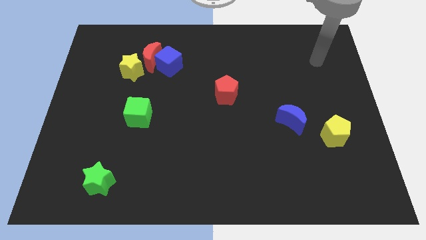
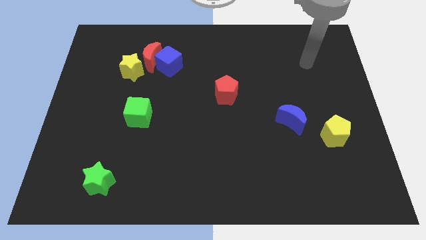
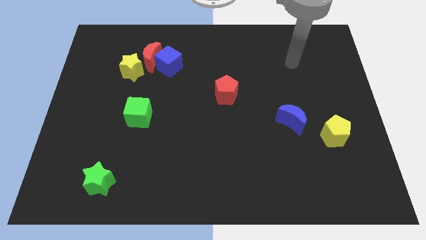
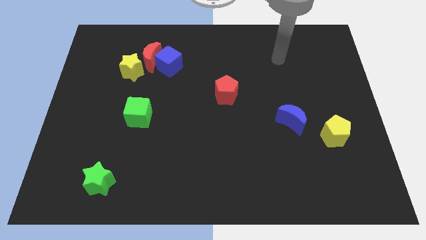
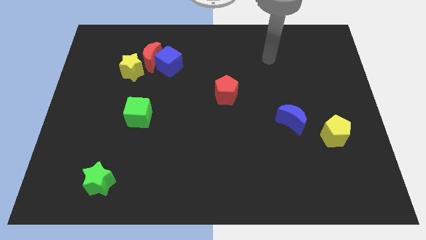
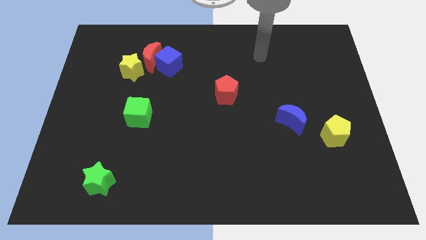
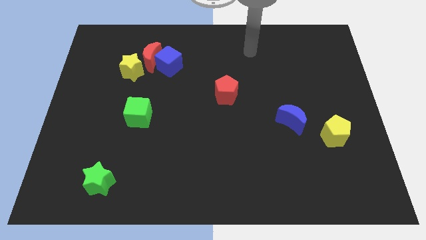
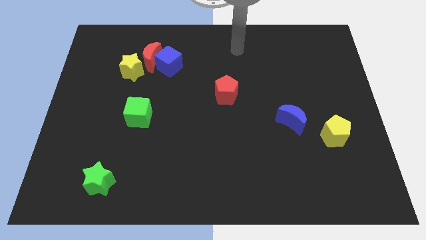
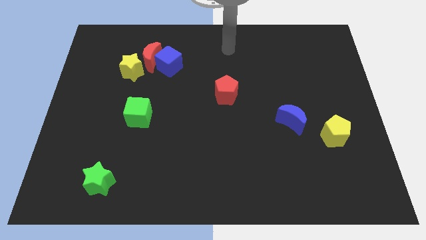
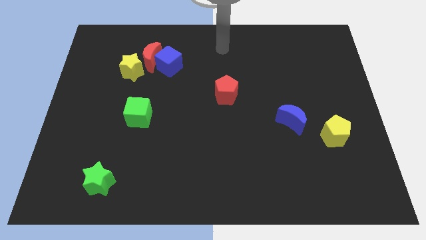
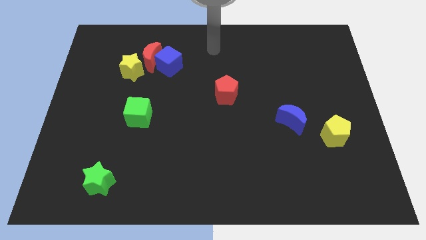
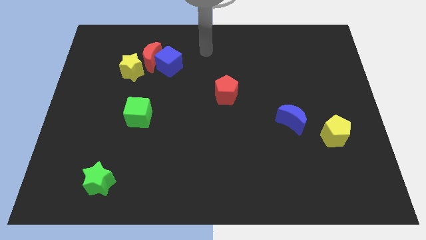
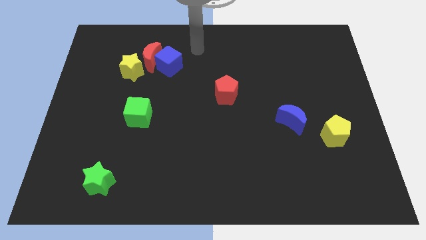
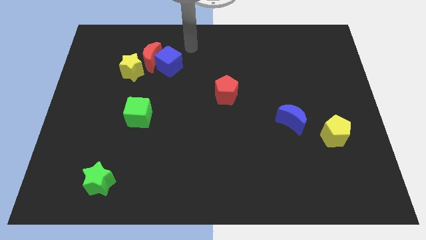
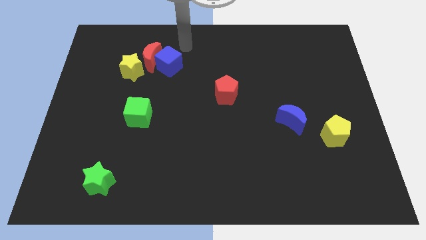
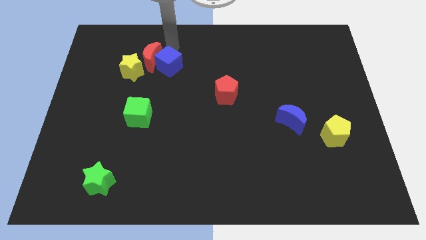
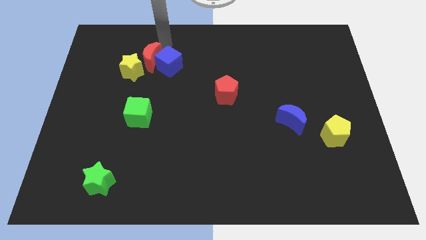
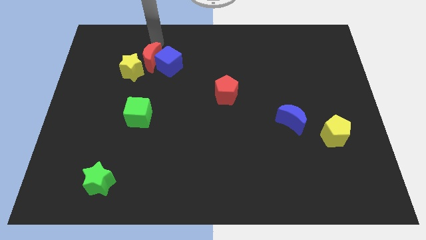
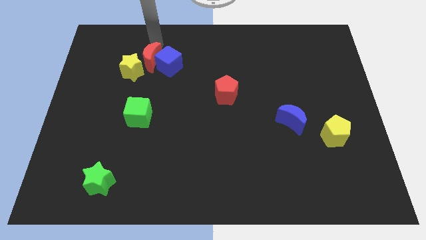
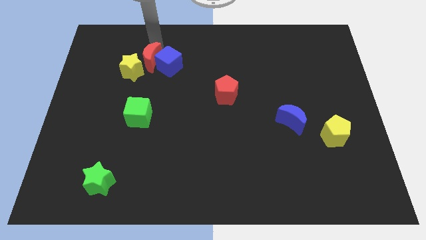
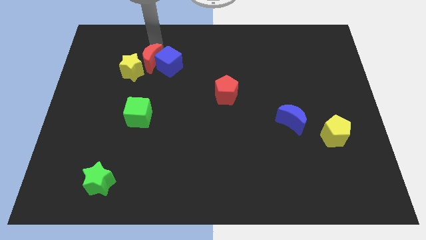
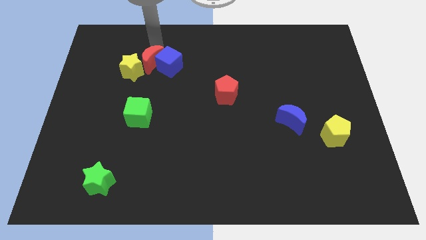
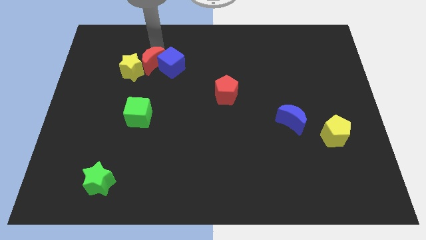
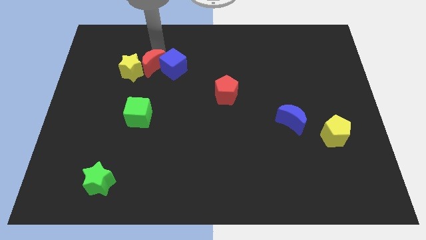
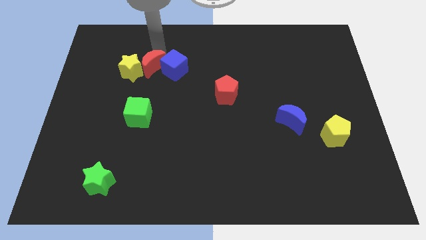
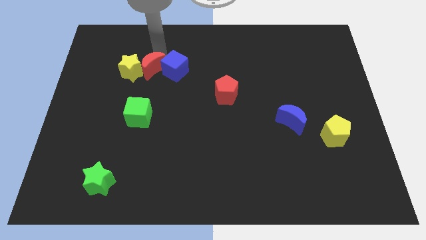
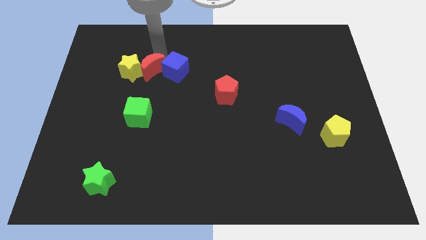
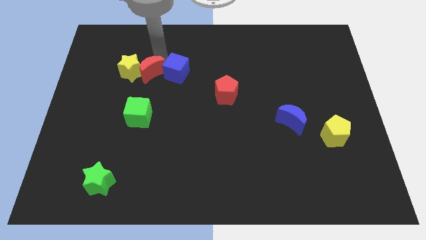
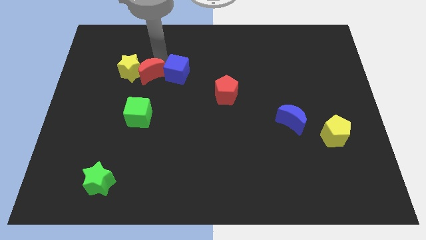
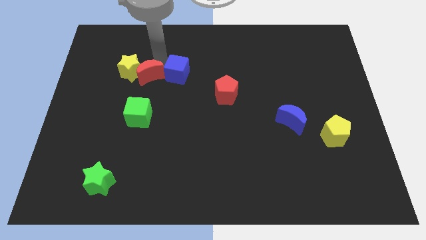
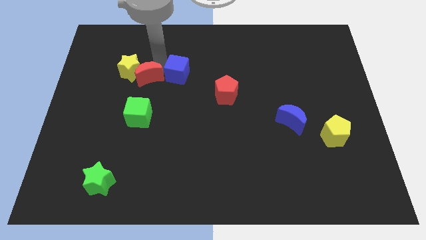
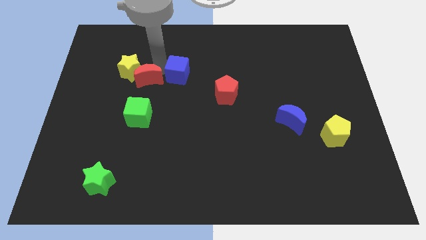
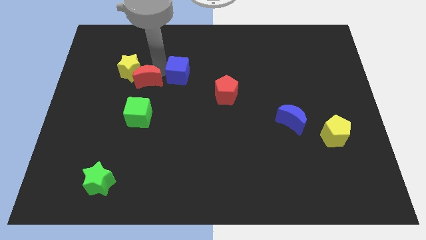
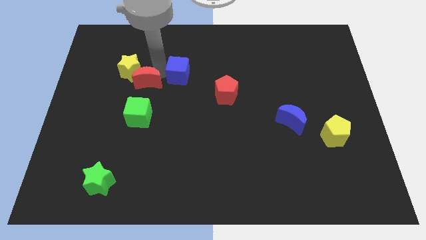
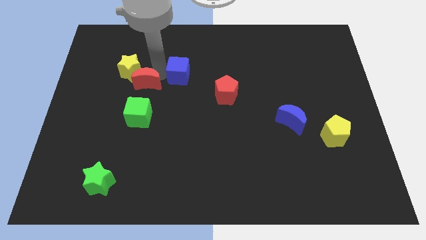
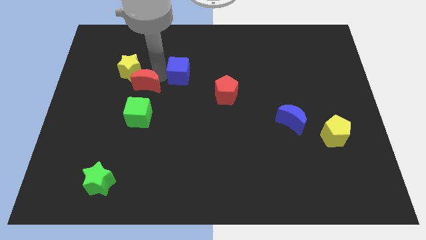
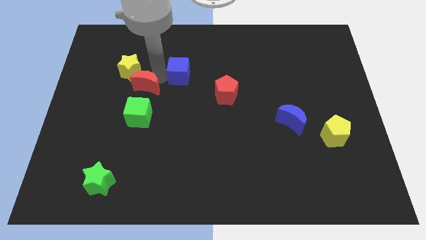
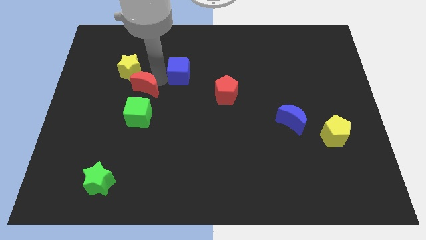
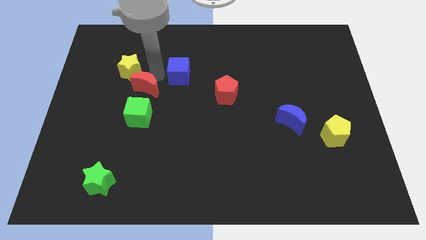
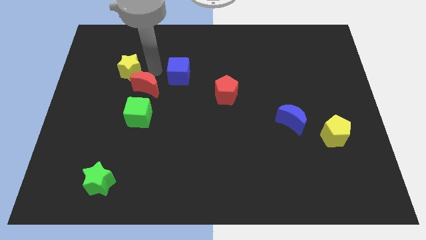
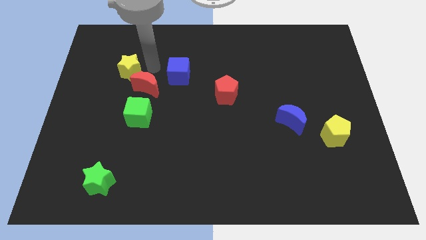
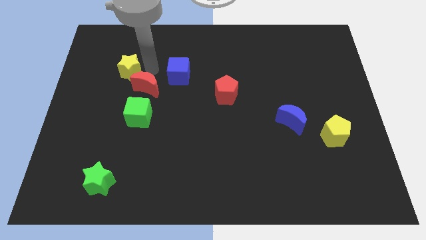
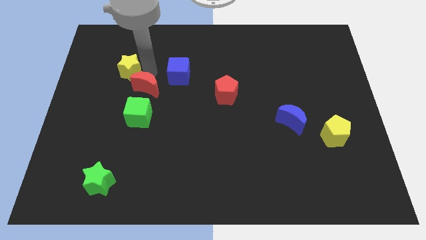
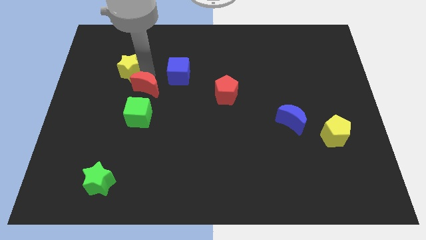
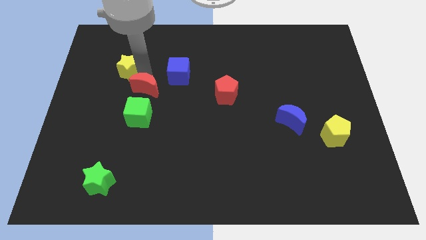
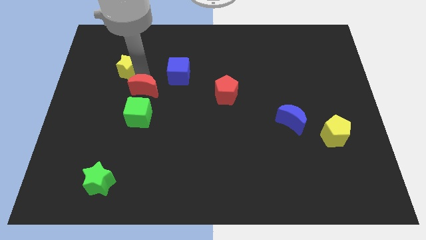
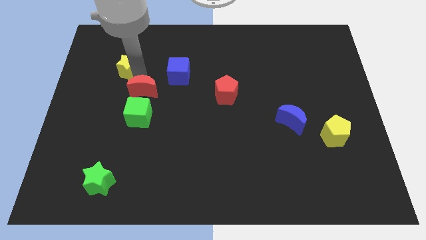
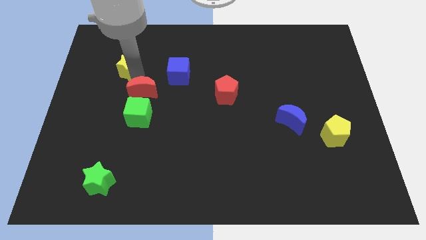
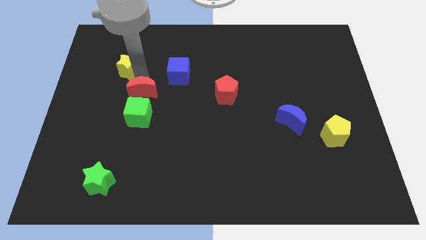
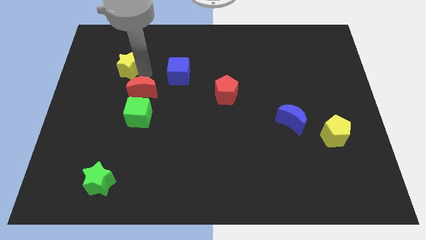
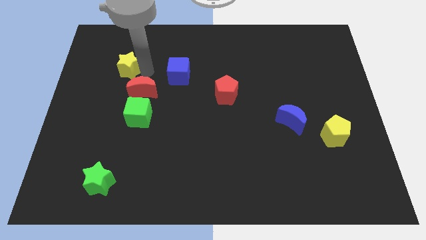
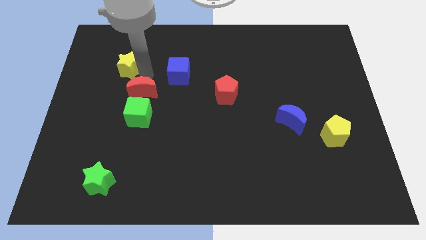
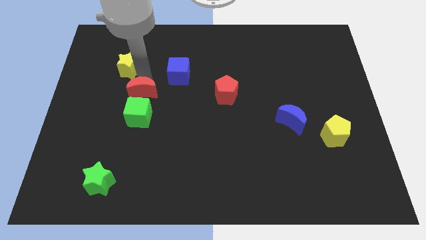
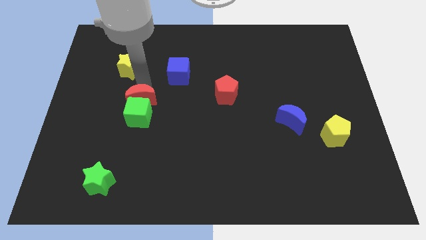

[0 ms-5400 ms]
move the red moon next to the green cube

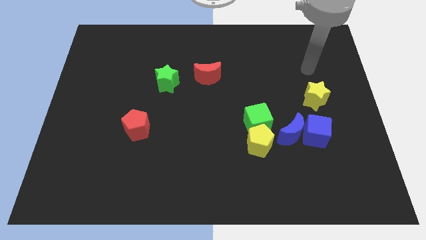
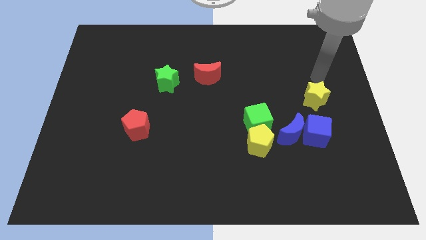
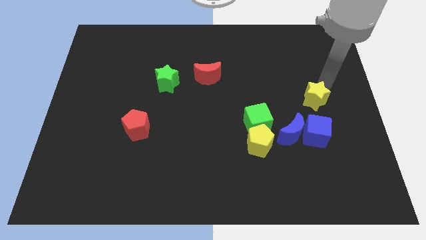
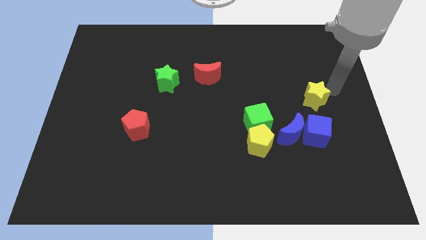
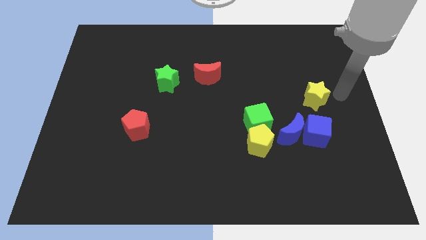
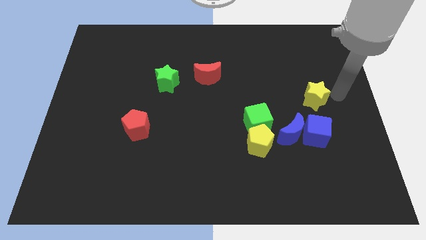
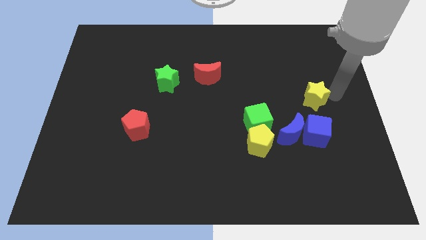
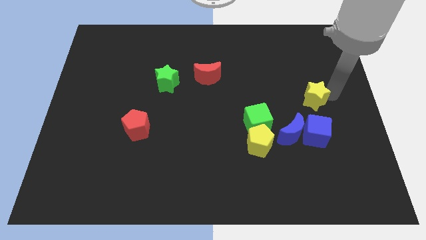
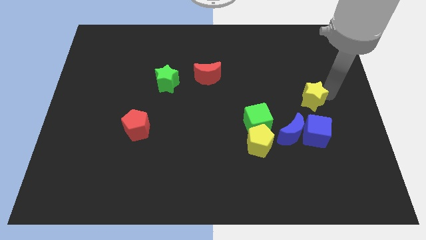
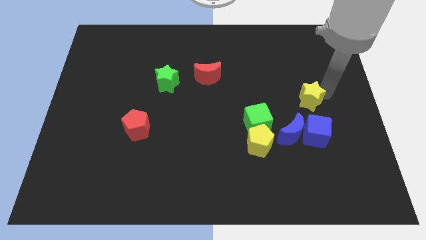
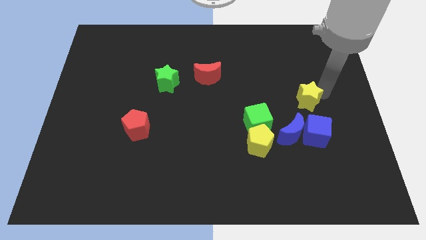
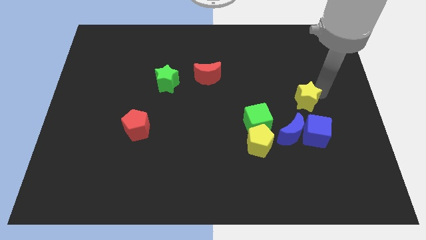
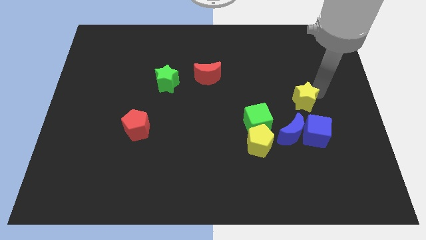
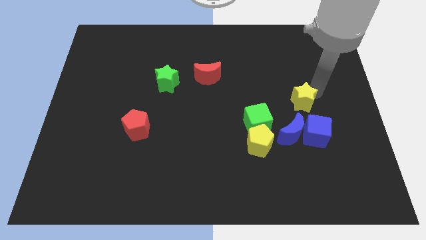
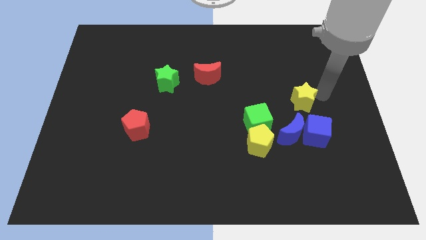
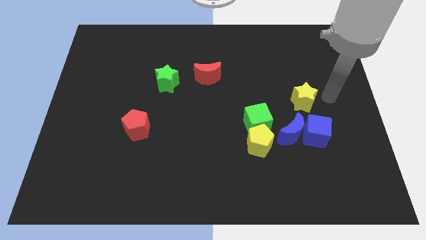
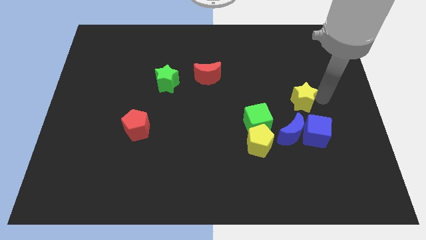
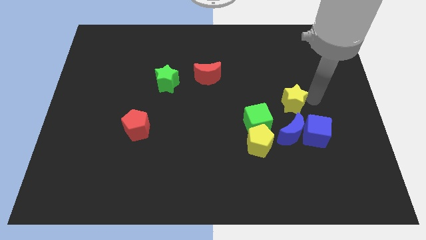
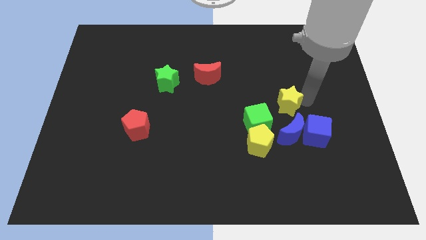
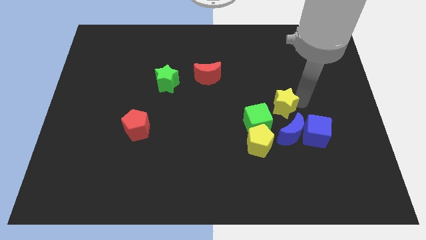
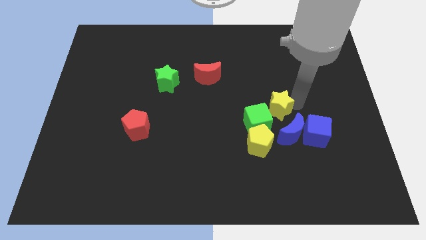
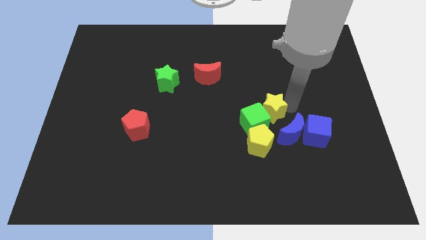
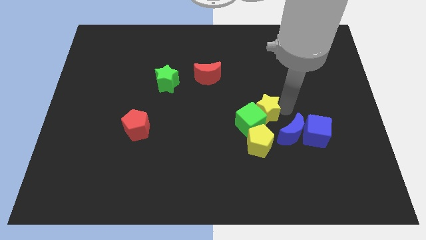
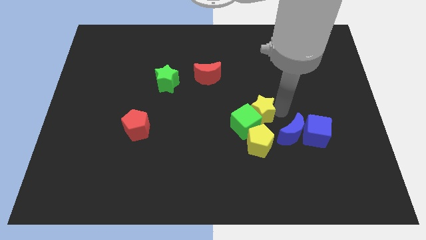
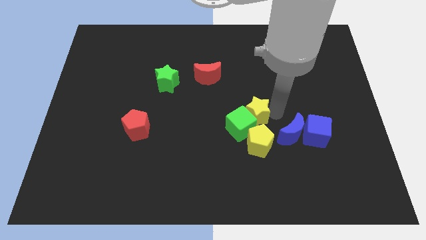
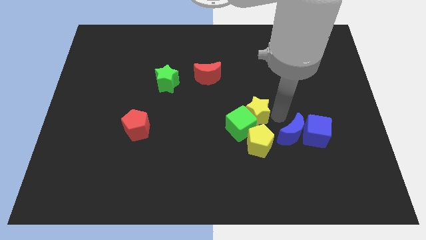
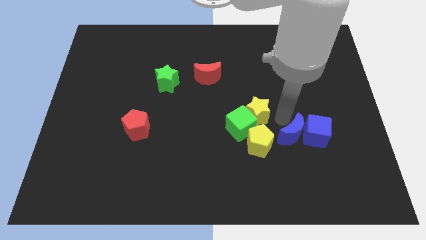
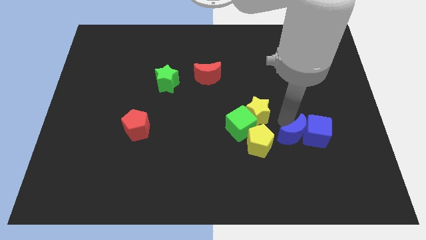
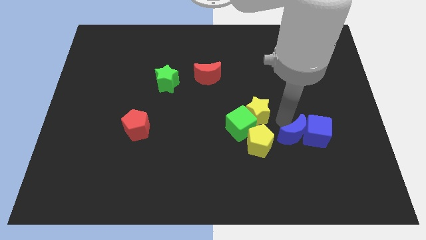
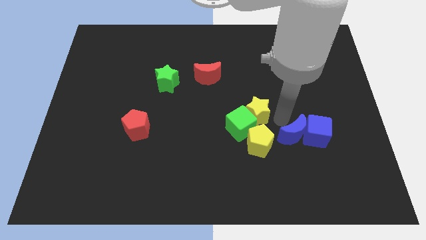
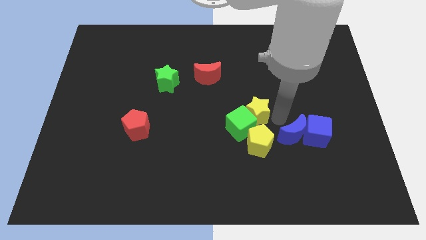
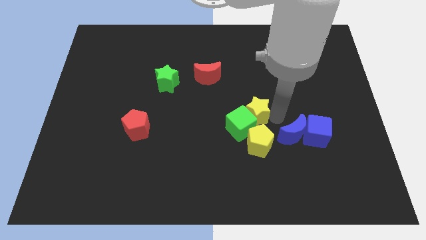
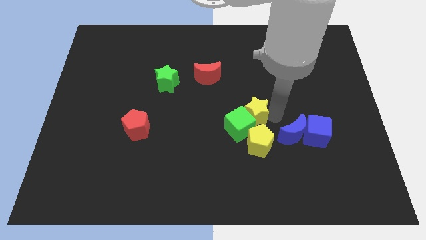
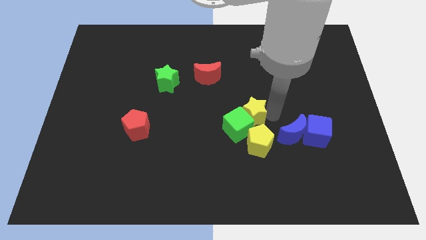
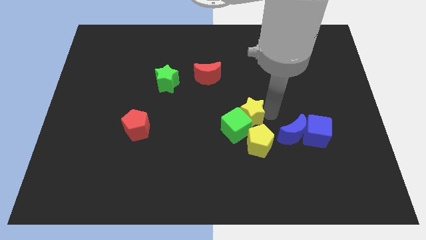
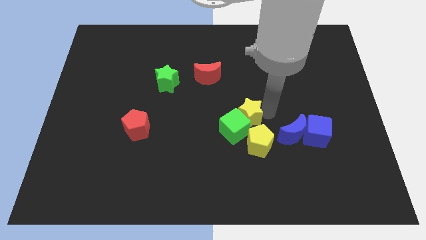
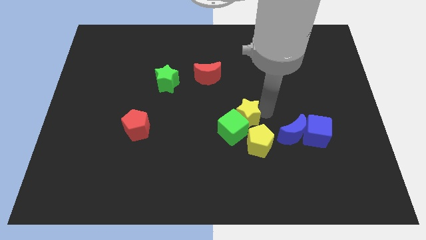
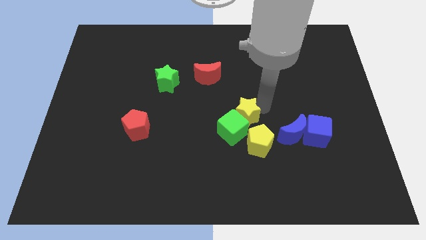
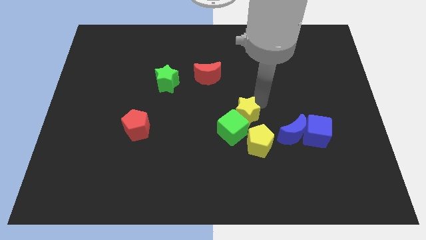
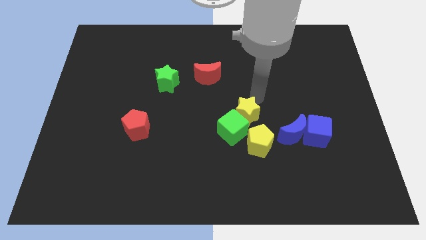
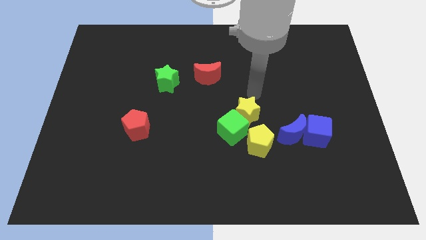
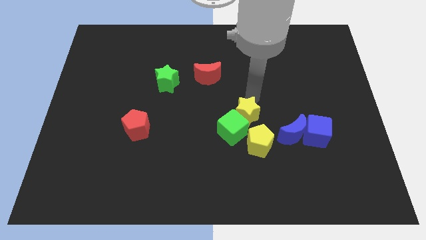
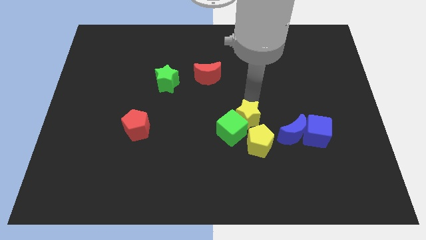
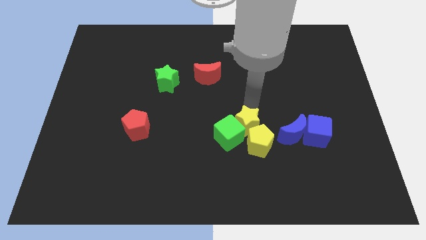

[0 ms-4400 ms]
slide the yellow star next to the yellow pentagon
